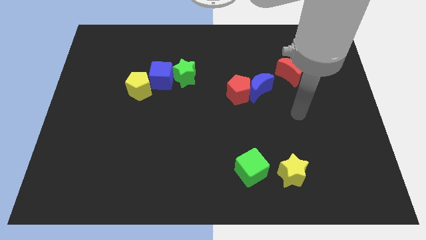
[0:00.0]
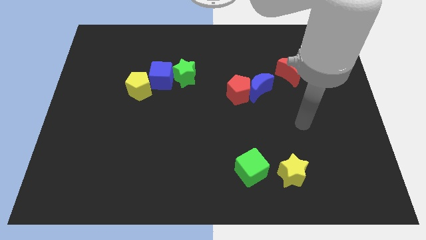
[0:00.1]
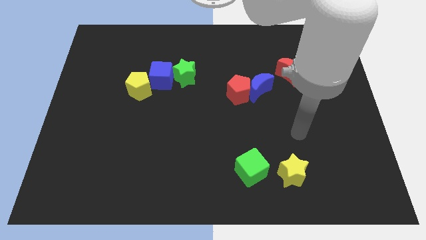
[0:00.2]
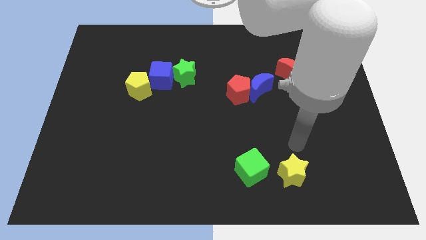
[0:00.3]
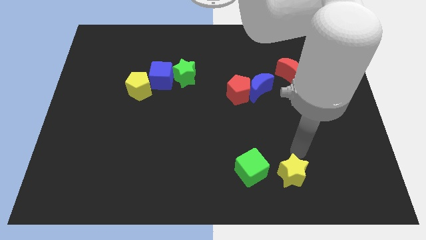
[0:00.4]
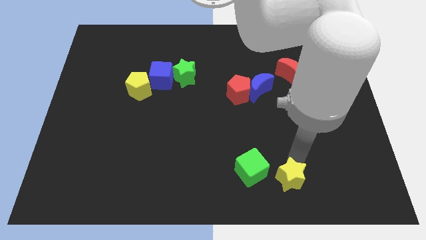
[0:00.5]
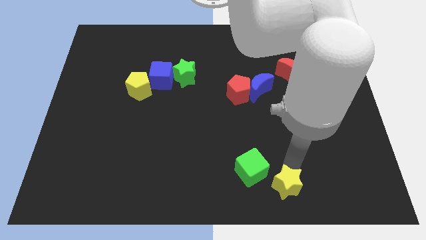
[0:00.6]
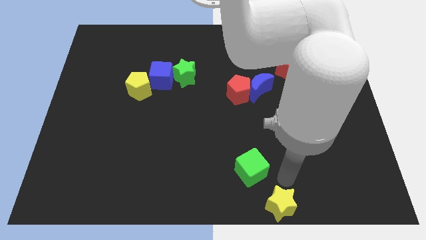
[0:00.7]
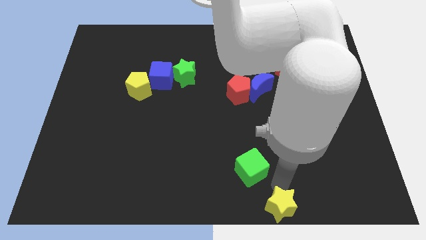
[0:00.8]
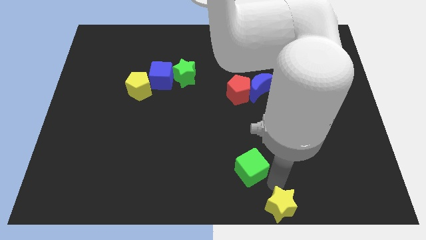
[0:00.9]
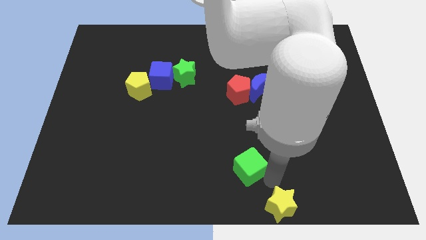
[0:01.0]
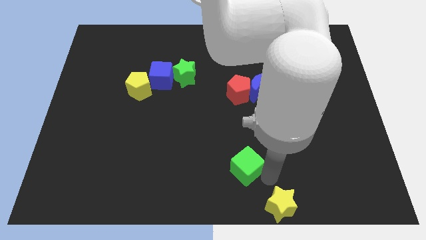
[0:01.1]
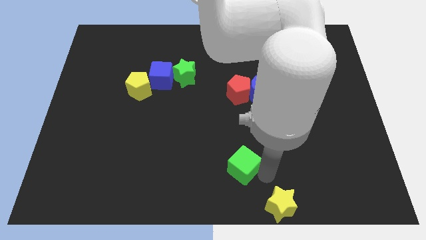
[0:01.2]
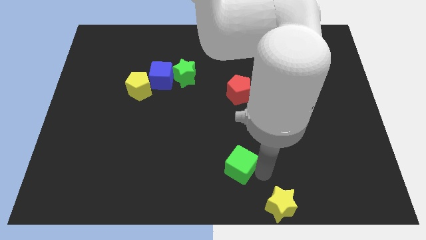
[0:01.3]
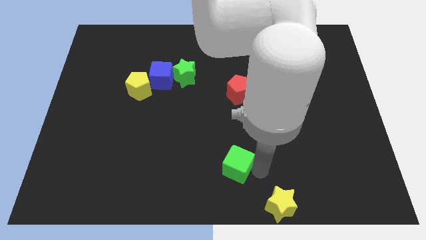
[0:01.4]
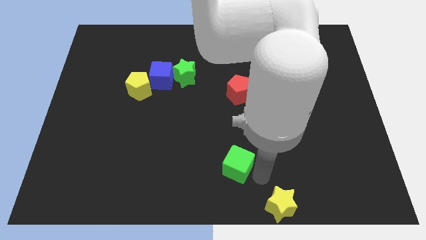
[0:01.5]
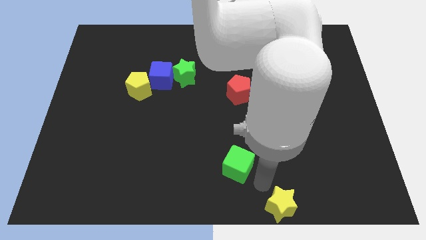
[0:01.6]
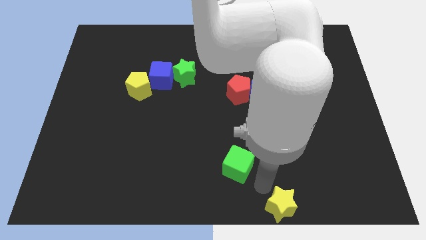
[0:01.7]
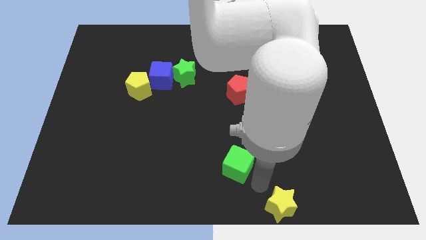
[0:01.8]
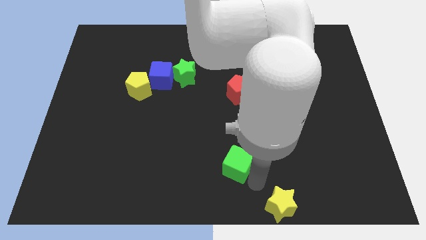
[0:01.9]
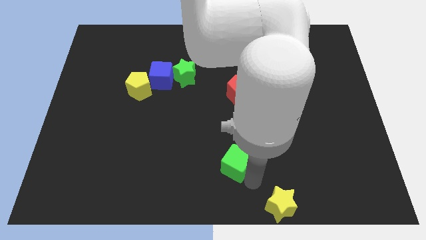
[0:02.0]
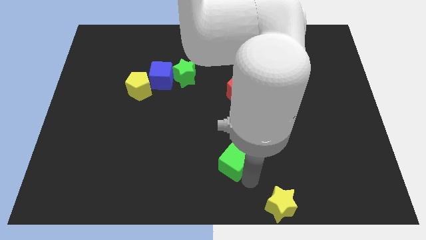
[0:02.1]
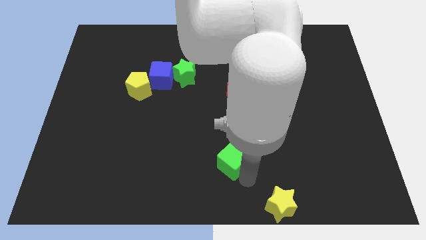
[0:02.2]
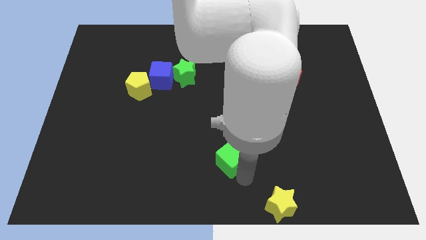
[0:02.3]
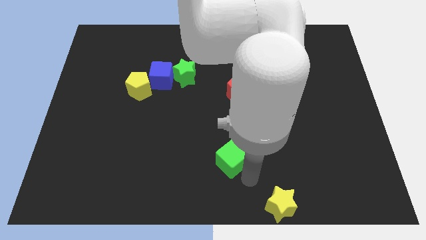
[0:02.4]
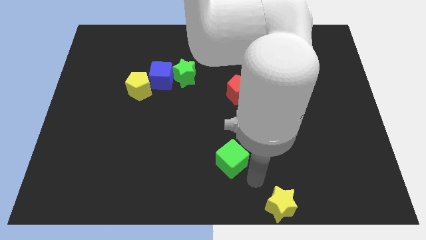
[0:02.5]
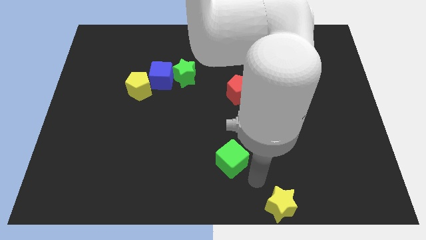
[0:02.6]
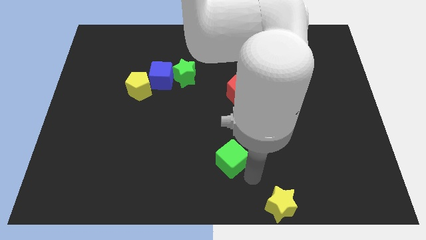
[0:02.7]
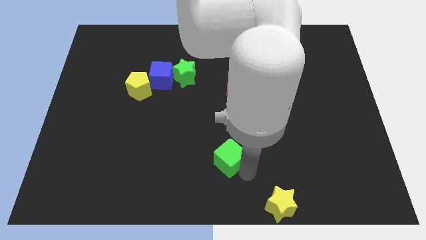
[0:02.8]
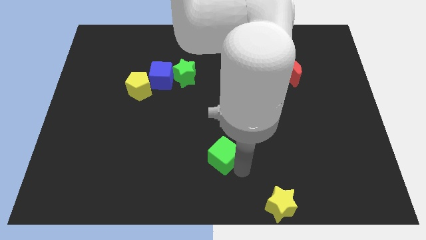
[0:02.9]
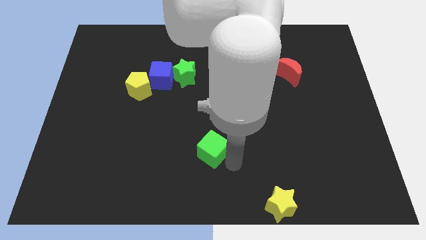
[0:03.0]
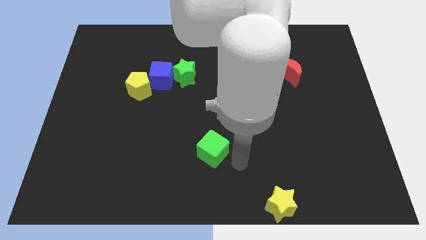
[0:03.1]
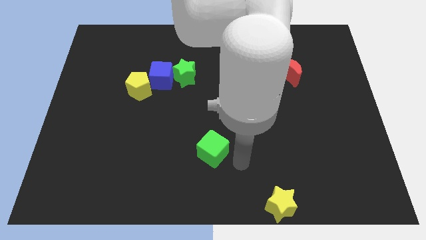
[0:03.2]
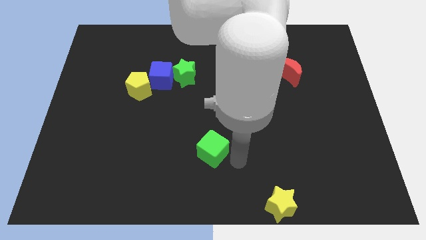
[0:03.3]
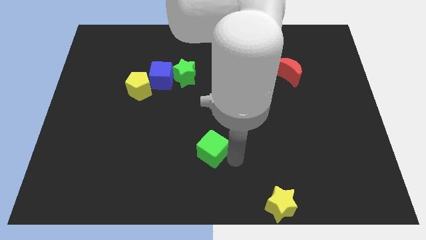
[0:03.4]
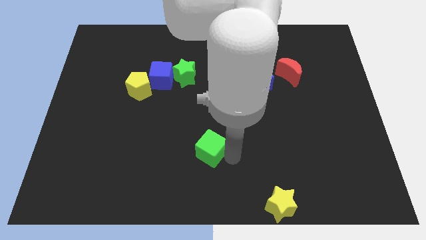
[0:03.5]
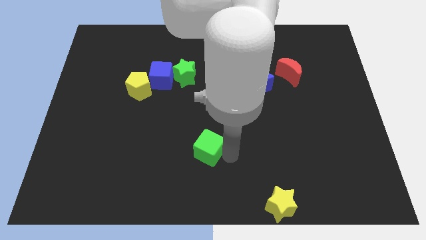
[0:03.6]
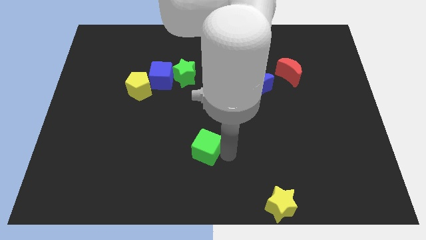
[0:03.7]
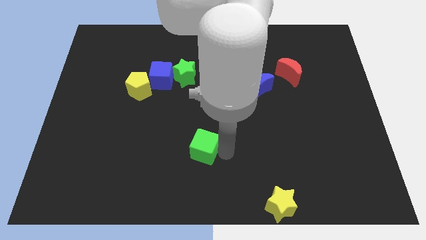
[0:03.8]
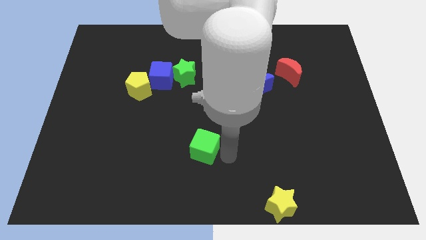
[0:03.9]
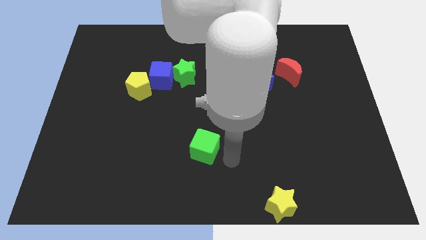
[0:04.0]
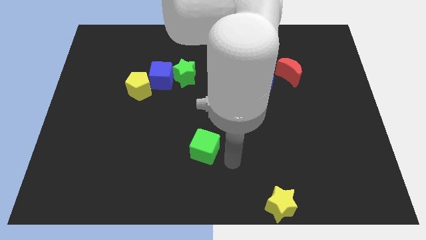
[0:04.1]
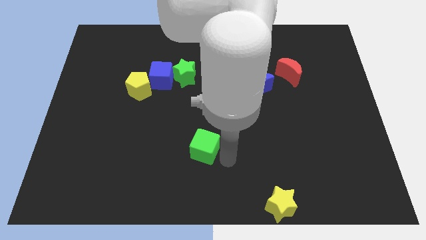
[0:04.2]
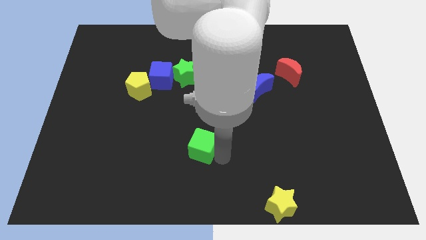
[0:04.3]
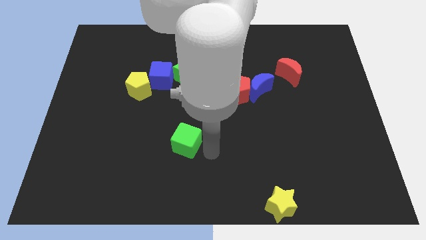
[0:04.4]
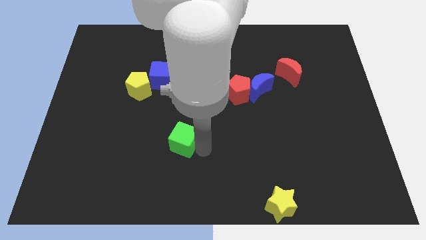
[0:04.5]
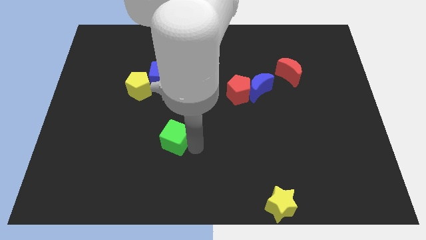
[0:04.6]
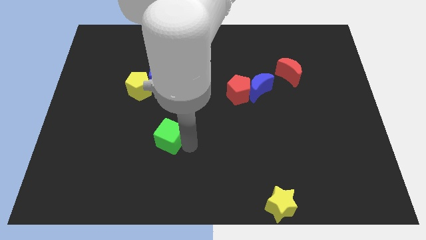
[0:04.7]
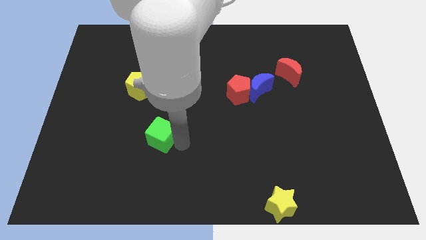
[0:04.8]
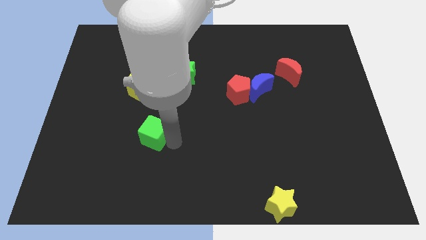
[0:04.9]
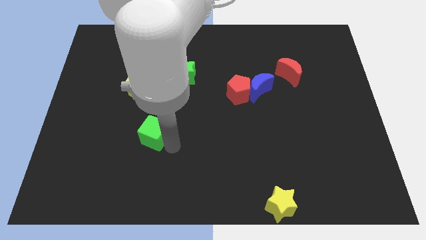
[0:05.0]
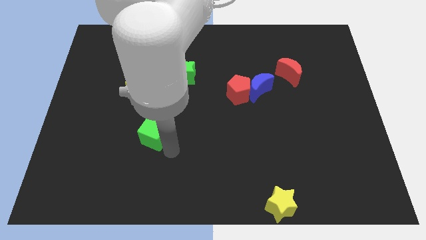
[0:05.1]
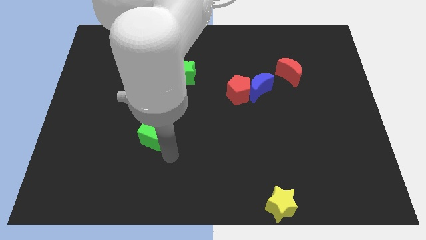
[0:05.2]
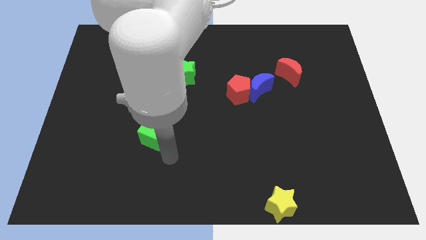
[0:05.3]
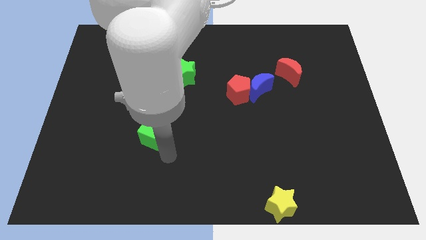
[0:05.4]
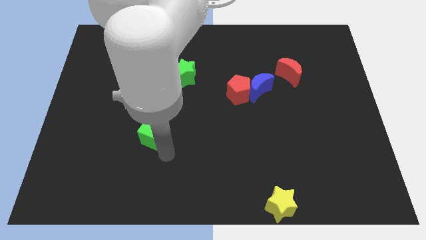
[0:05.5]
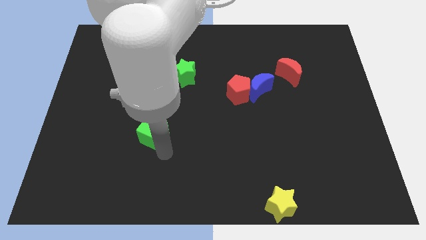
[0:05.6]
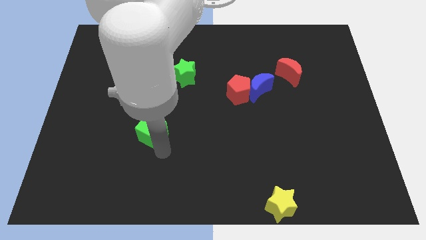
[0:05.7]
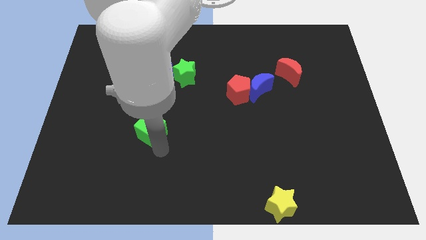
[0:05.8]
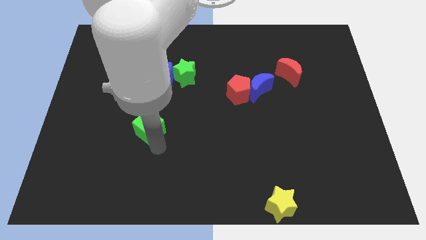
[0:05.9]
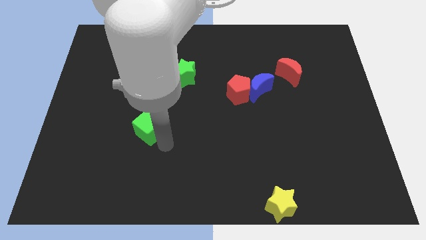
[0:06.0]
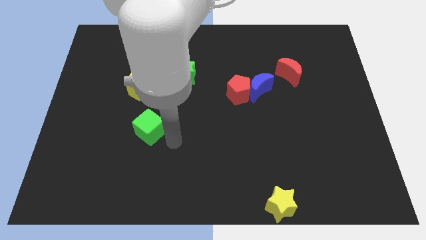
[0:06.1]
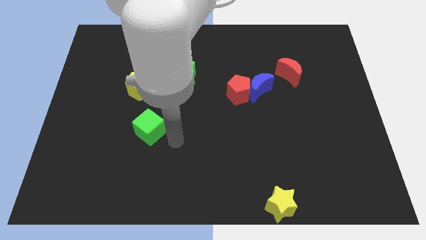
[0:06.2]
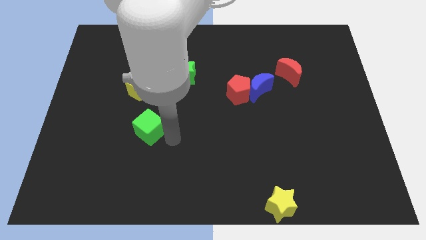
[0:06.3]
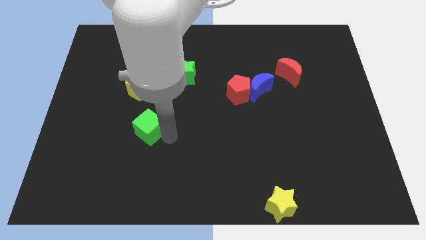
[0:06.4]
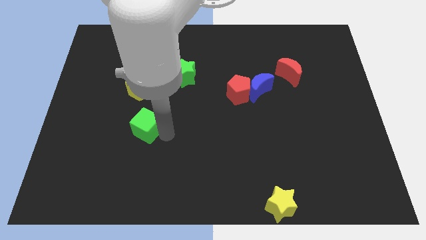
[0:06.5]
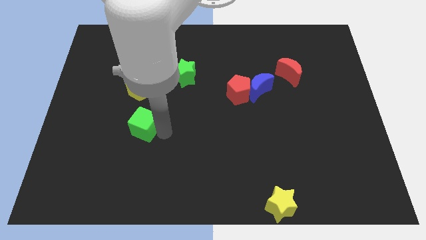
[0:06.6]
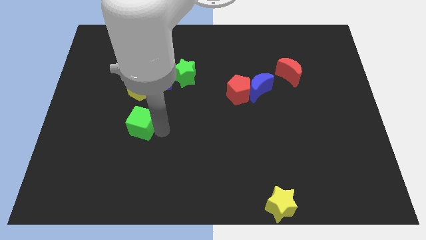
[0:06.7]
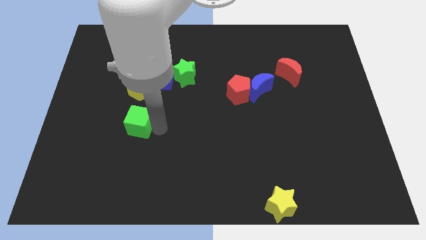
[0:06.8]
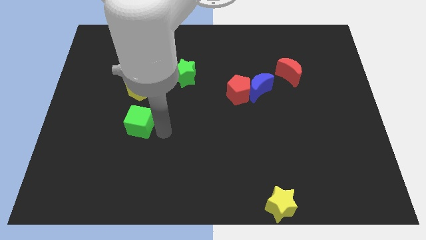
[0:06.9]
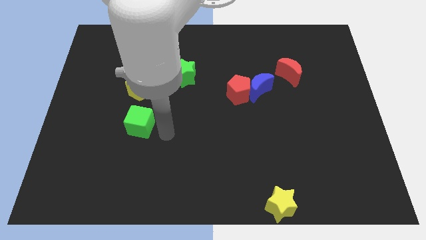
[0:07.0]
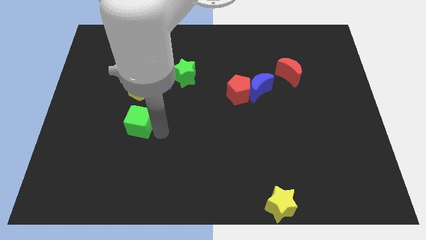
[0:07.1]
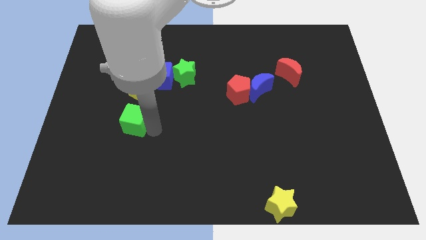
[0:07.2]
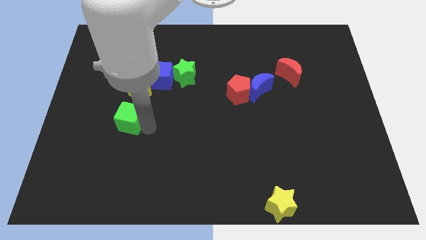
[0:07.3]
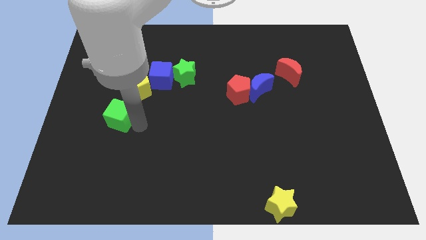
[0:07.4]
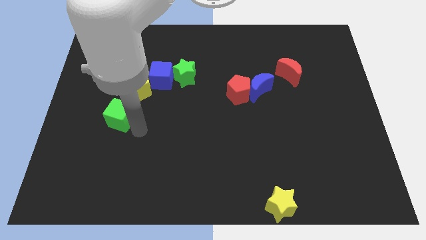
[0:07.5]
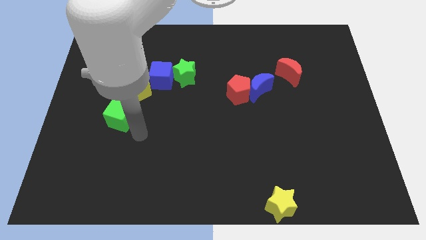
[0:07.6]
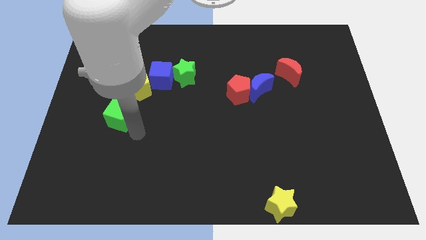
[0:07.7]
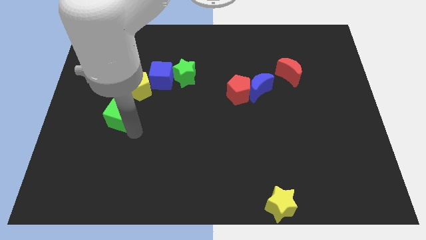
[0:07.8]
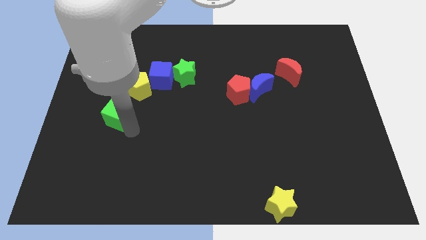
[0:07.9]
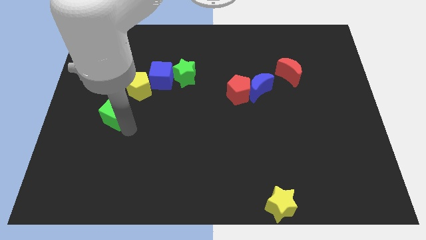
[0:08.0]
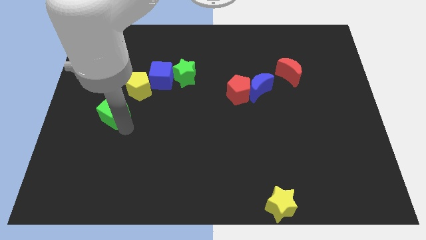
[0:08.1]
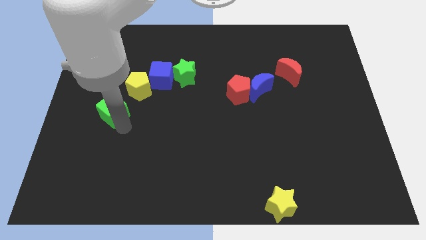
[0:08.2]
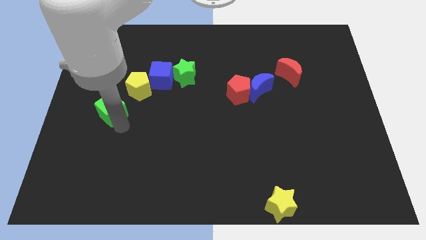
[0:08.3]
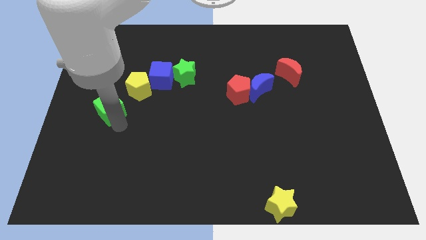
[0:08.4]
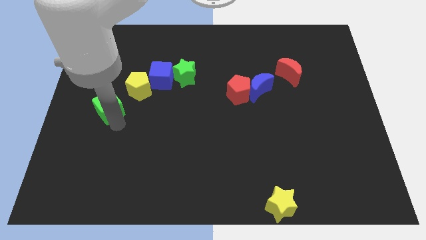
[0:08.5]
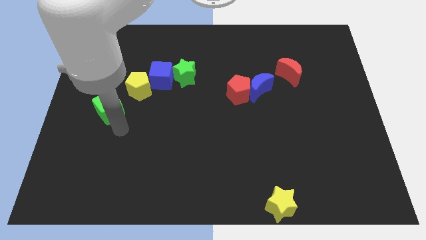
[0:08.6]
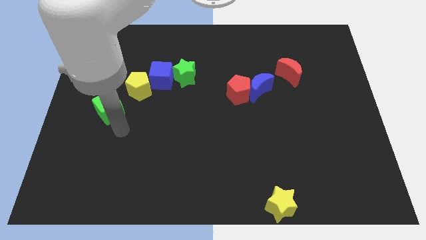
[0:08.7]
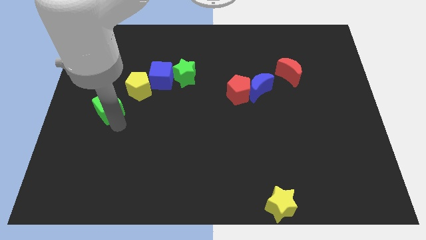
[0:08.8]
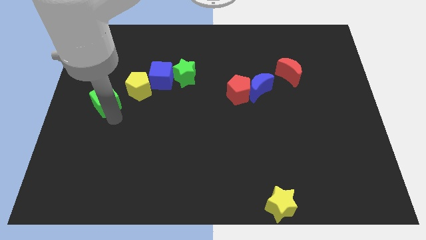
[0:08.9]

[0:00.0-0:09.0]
push the green cube to the left side of the yellow pentagon
